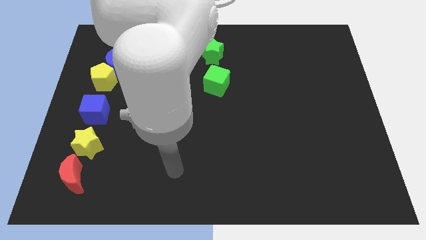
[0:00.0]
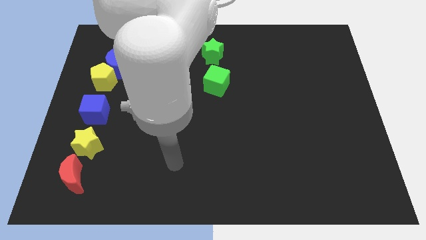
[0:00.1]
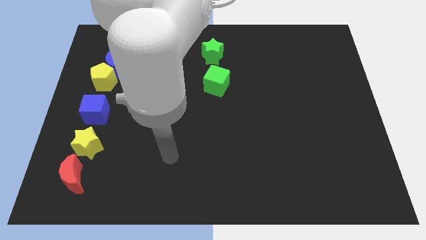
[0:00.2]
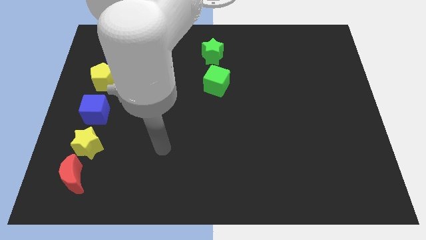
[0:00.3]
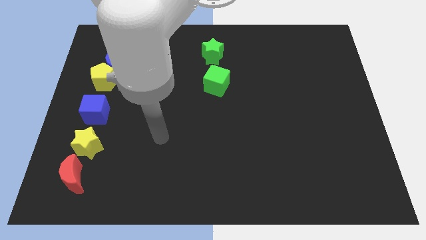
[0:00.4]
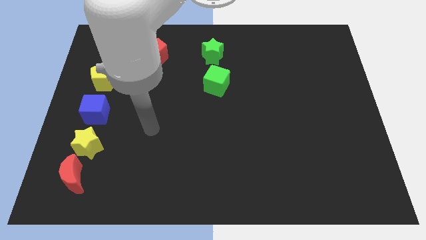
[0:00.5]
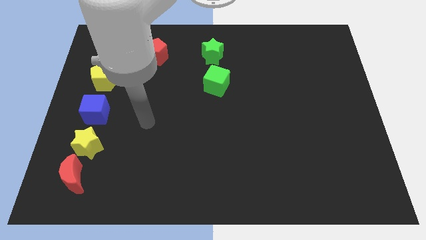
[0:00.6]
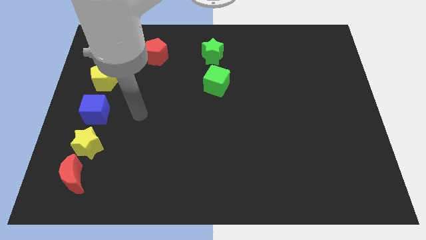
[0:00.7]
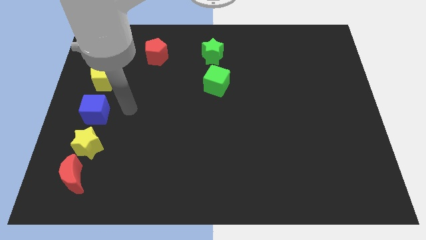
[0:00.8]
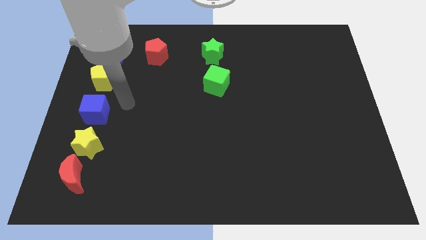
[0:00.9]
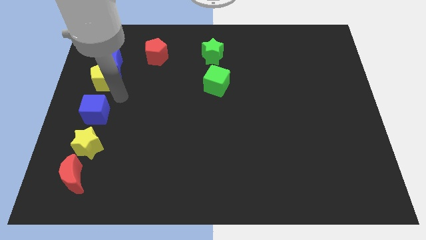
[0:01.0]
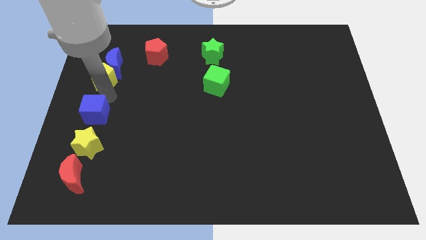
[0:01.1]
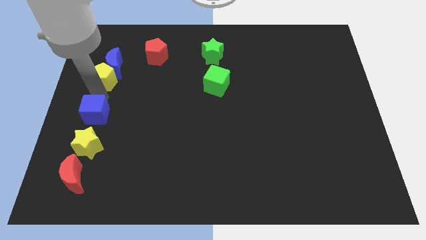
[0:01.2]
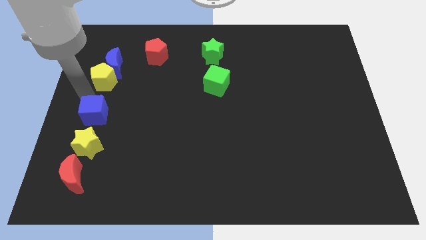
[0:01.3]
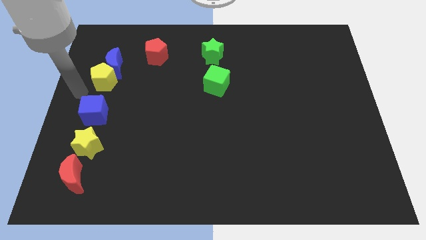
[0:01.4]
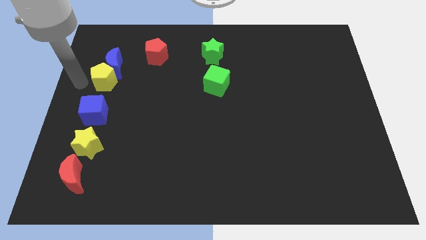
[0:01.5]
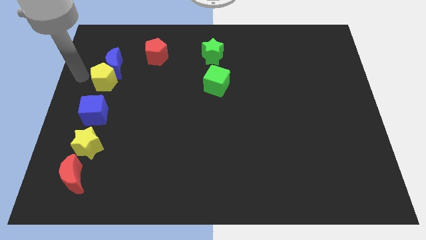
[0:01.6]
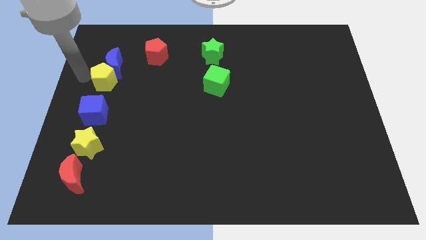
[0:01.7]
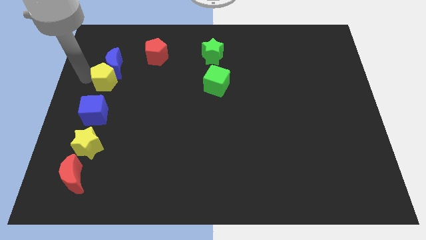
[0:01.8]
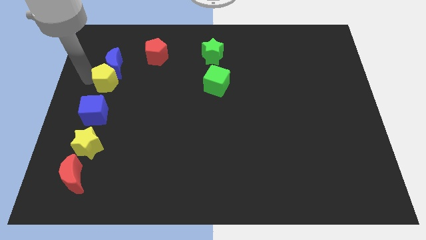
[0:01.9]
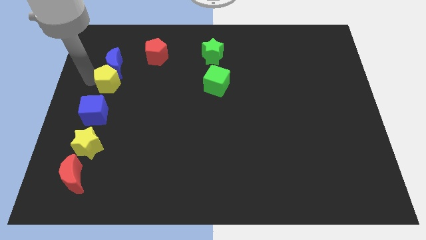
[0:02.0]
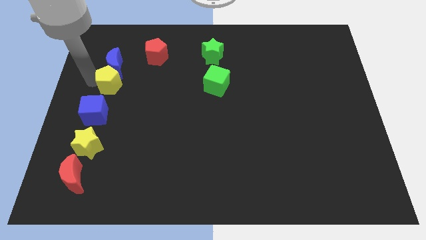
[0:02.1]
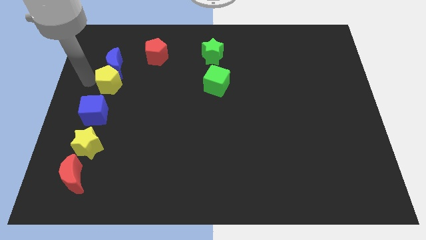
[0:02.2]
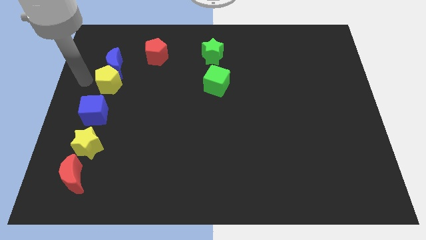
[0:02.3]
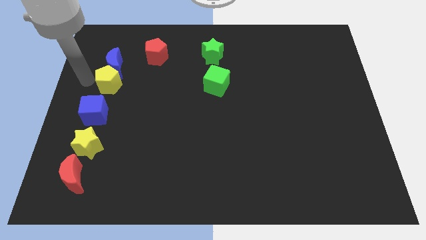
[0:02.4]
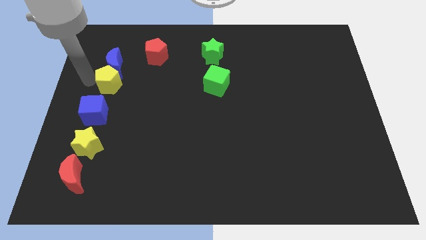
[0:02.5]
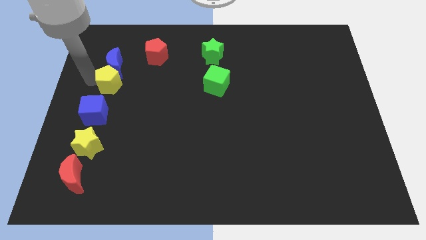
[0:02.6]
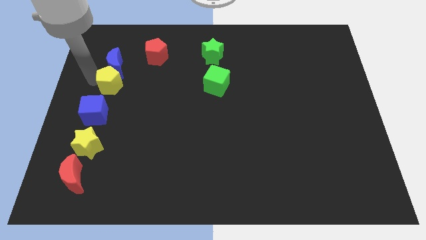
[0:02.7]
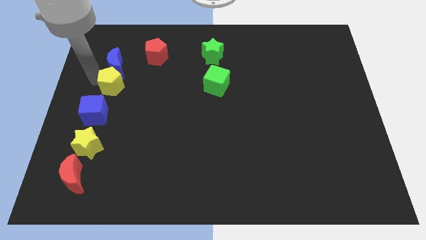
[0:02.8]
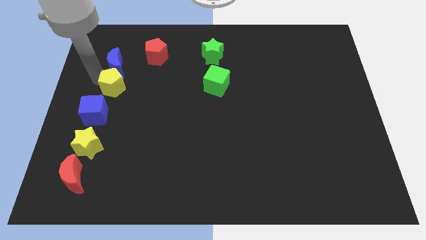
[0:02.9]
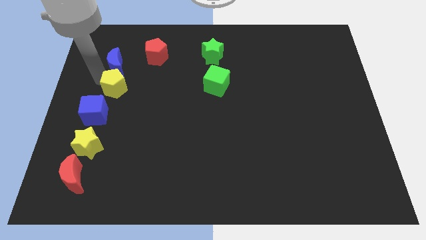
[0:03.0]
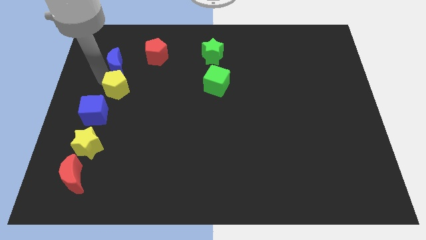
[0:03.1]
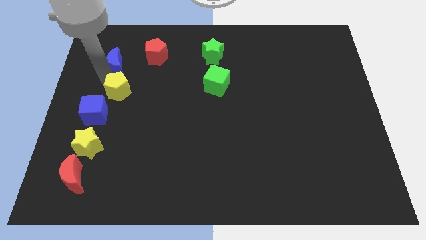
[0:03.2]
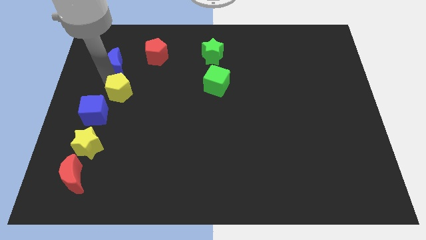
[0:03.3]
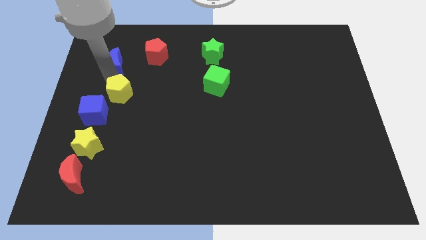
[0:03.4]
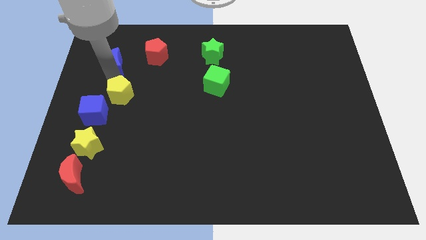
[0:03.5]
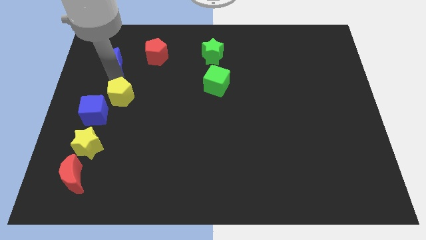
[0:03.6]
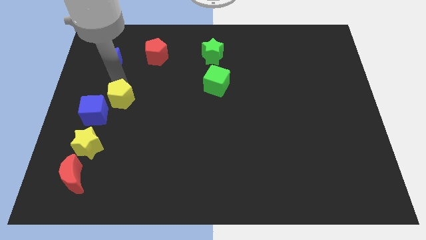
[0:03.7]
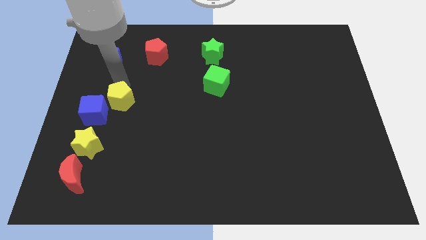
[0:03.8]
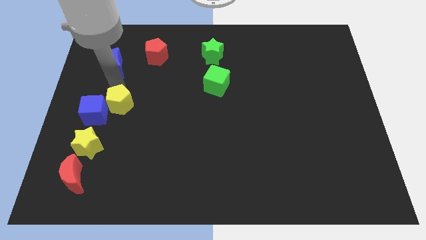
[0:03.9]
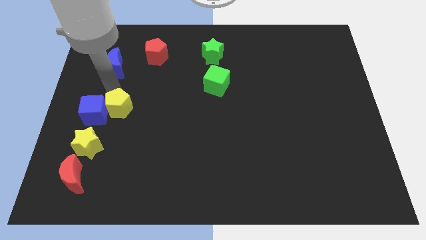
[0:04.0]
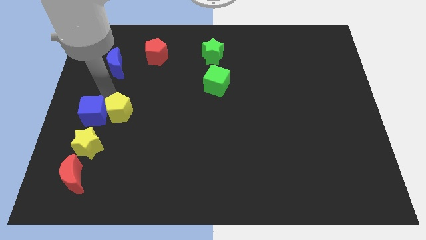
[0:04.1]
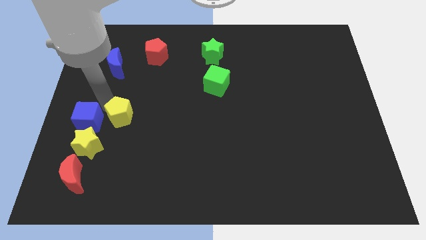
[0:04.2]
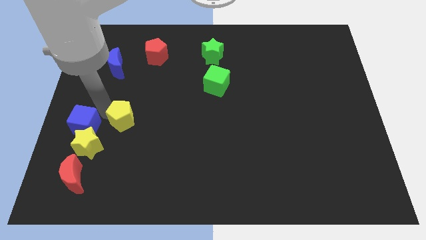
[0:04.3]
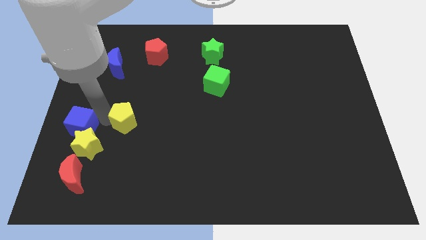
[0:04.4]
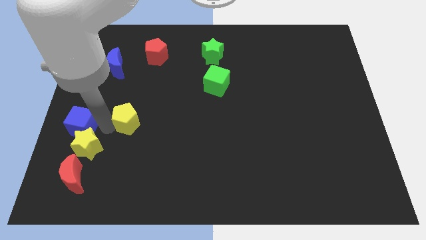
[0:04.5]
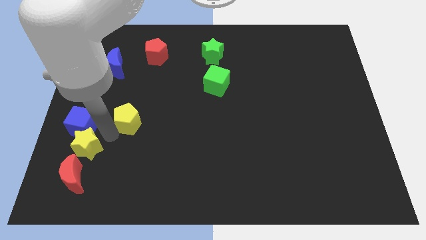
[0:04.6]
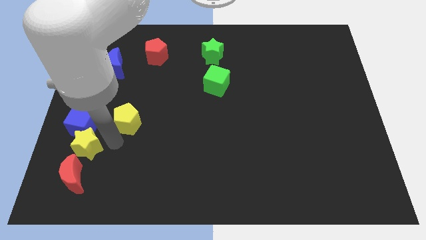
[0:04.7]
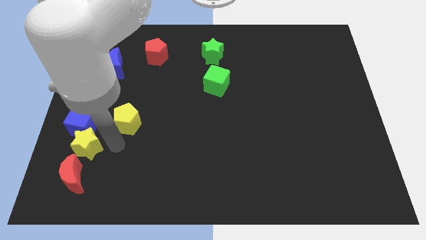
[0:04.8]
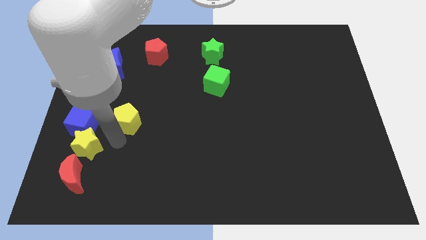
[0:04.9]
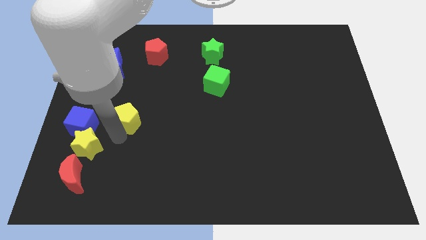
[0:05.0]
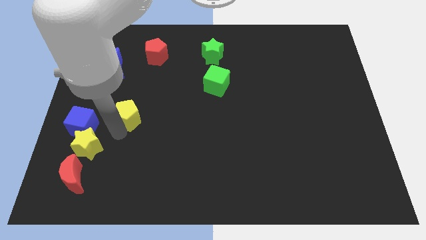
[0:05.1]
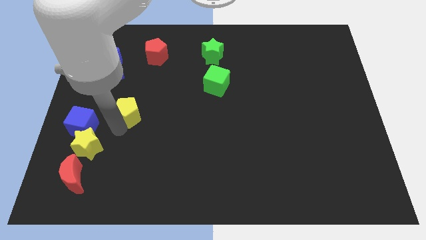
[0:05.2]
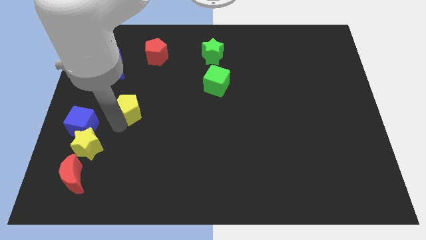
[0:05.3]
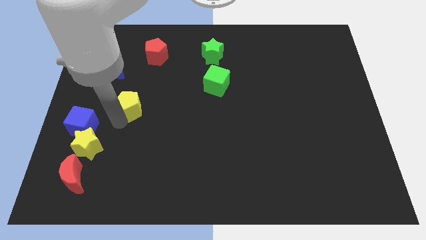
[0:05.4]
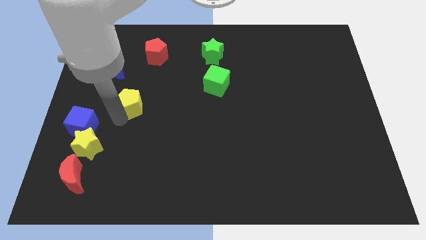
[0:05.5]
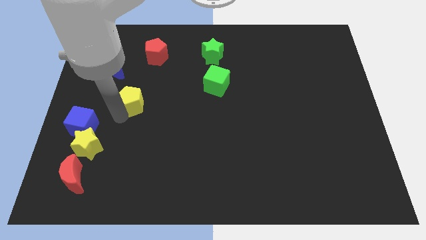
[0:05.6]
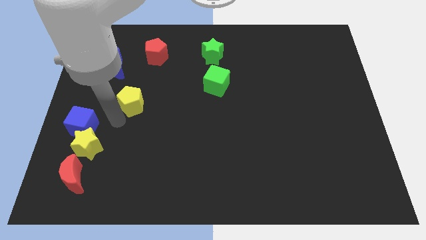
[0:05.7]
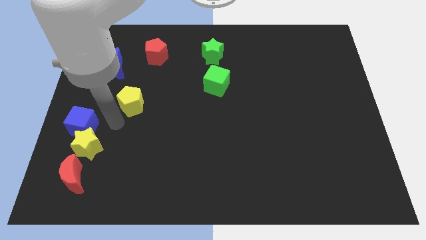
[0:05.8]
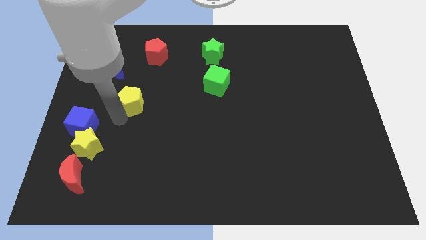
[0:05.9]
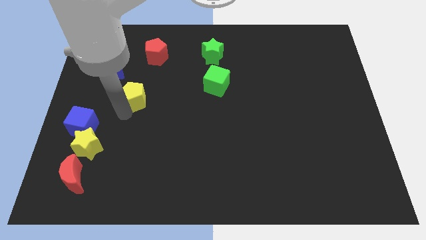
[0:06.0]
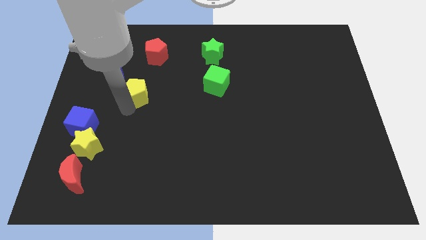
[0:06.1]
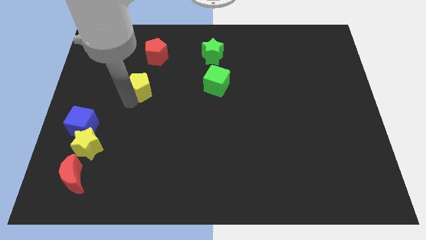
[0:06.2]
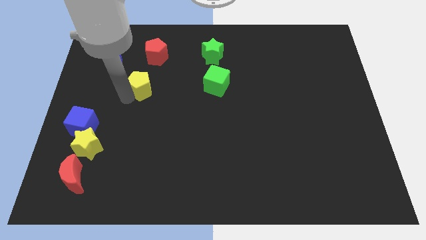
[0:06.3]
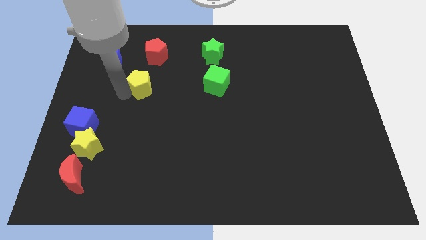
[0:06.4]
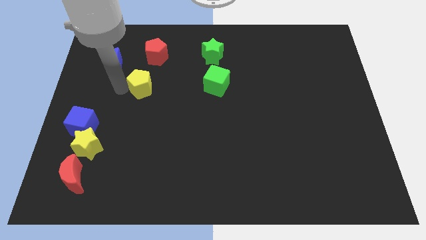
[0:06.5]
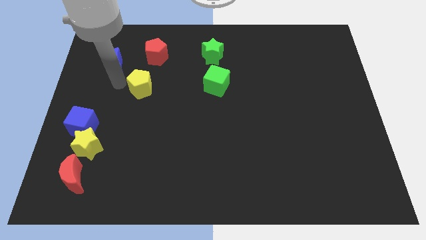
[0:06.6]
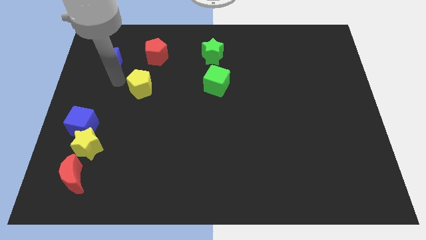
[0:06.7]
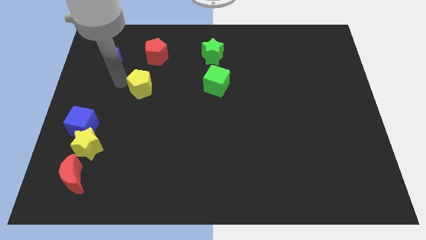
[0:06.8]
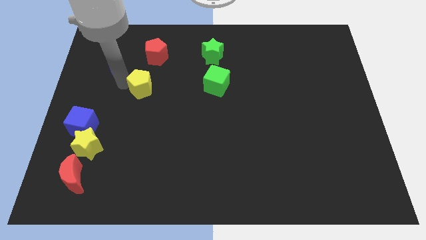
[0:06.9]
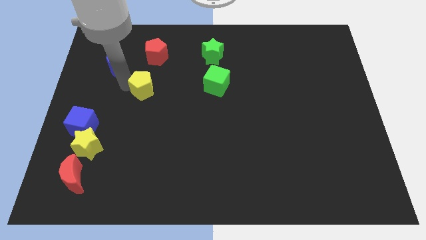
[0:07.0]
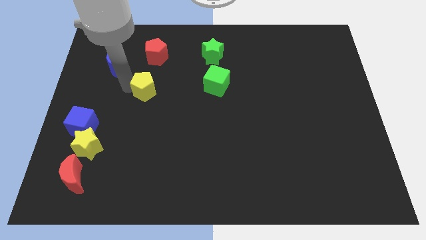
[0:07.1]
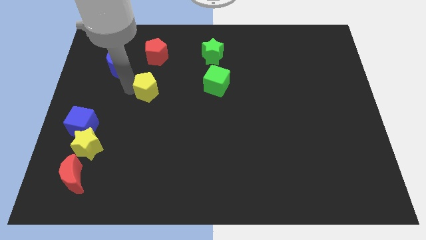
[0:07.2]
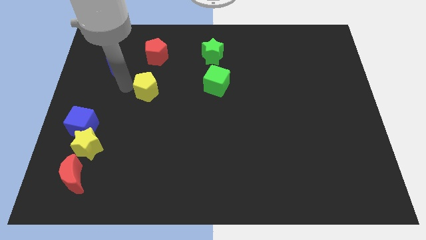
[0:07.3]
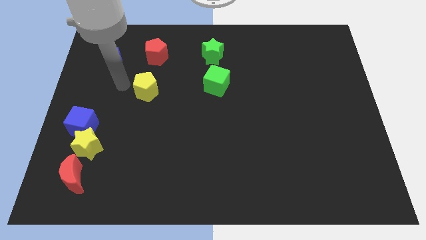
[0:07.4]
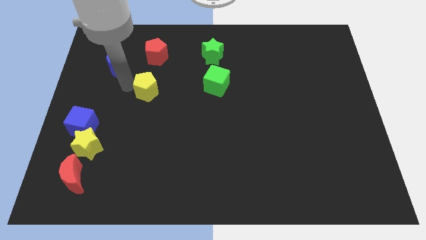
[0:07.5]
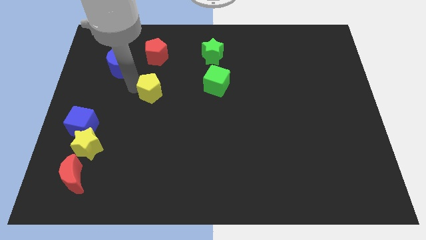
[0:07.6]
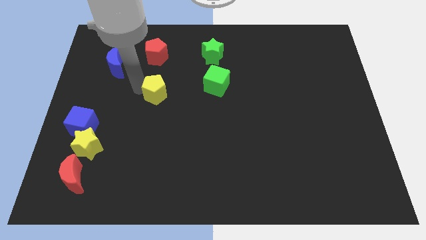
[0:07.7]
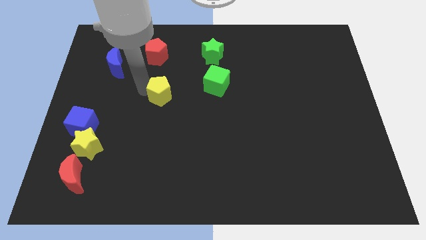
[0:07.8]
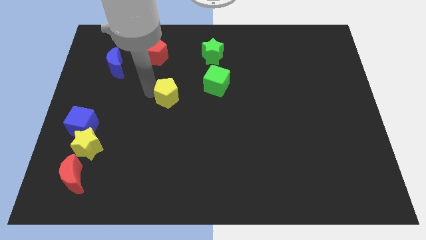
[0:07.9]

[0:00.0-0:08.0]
move the yellow pentagon to the center
